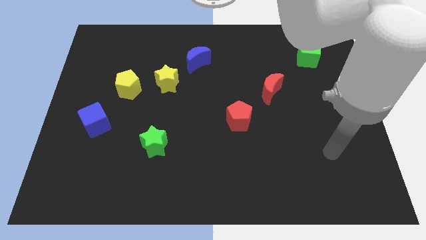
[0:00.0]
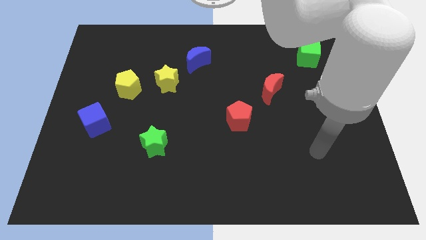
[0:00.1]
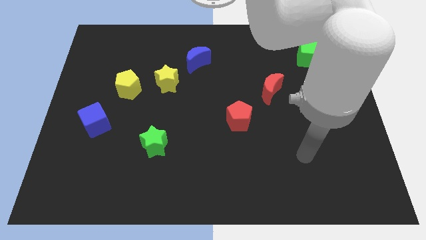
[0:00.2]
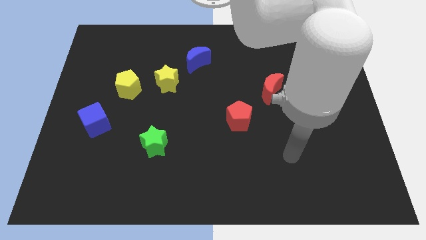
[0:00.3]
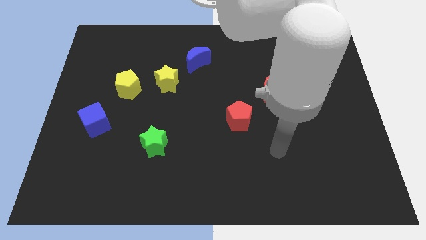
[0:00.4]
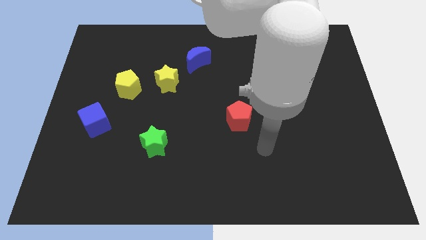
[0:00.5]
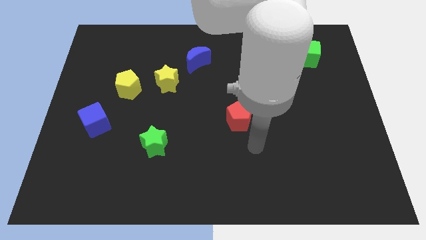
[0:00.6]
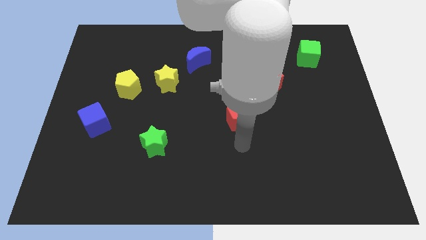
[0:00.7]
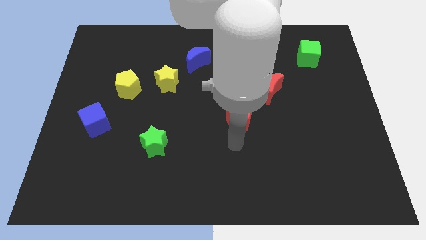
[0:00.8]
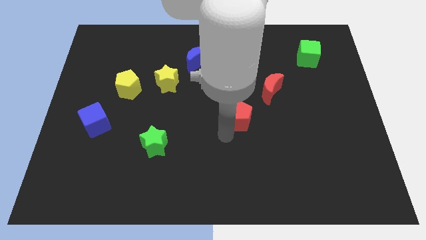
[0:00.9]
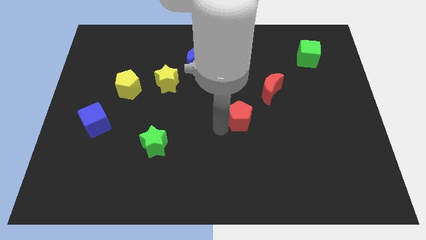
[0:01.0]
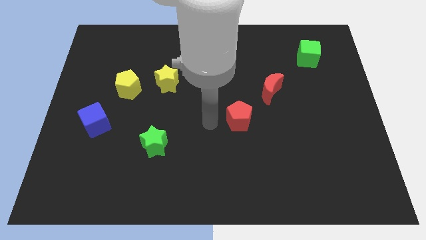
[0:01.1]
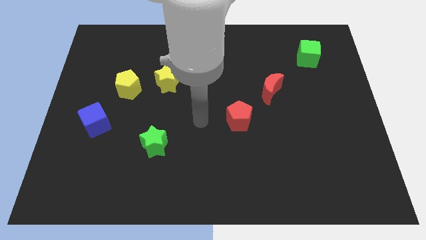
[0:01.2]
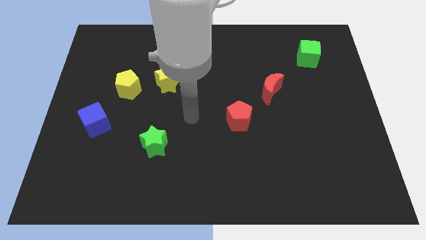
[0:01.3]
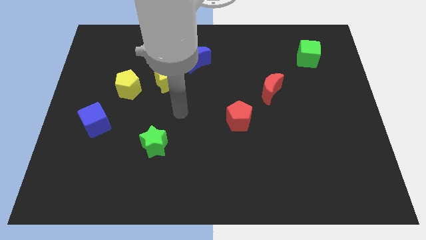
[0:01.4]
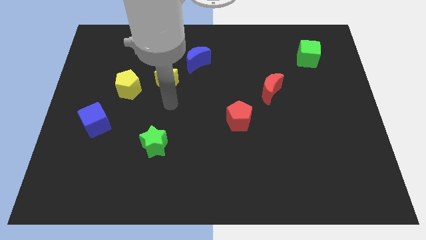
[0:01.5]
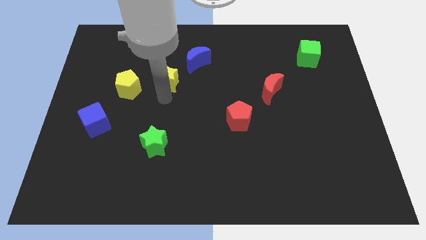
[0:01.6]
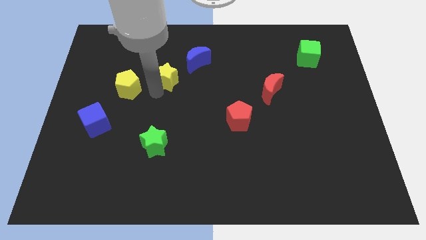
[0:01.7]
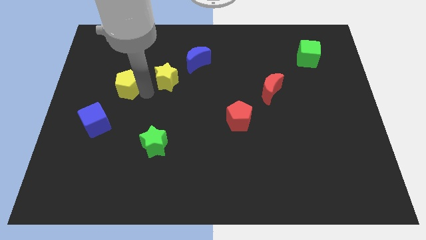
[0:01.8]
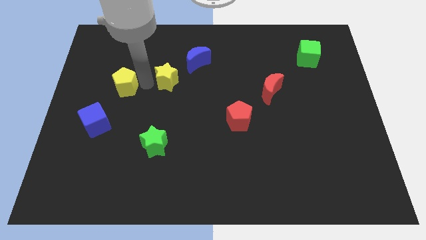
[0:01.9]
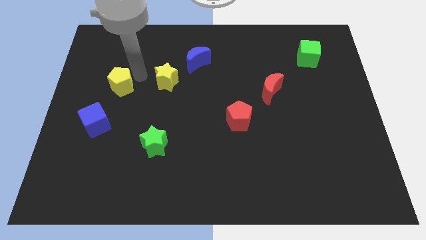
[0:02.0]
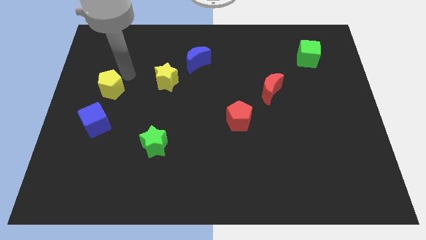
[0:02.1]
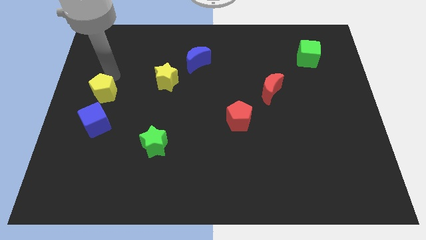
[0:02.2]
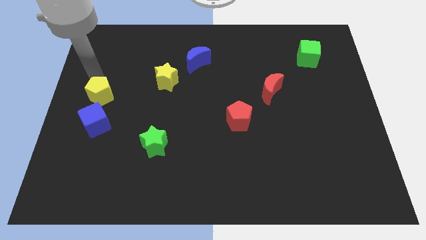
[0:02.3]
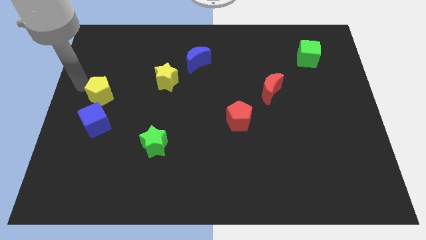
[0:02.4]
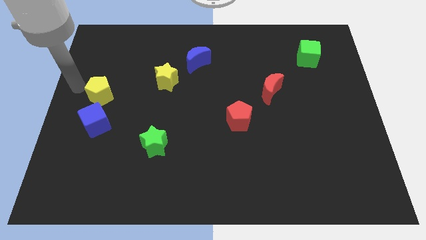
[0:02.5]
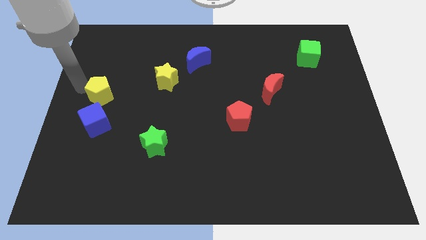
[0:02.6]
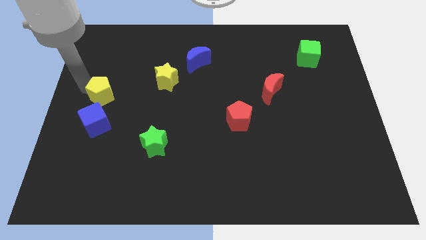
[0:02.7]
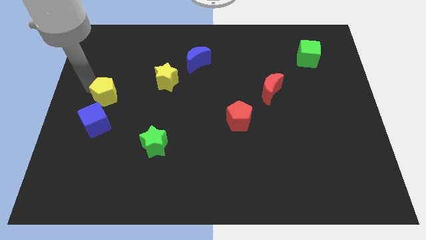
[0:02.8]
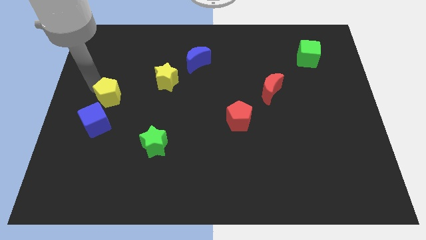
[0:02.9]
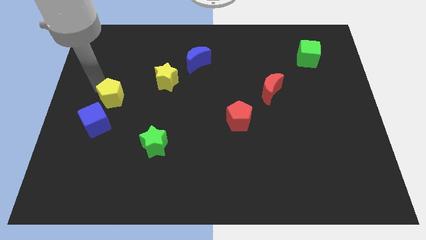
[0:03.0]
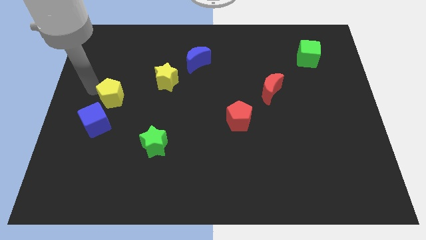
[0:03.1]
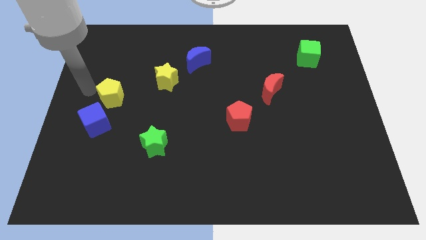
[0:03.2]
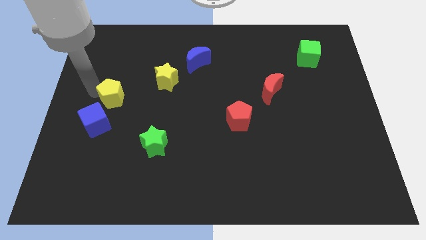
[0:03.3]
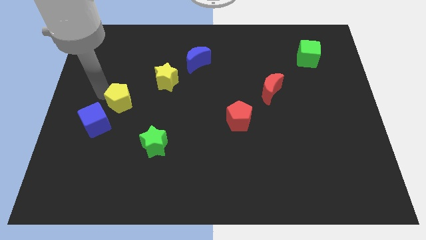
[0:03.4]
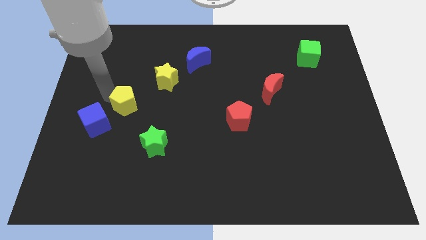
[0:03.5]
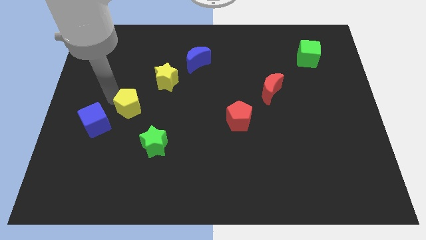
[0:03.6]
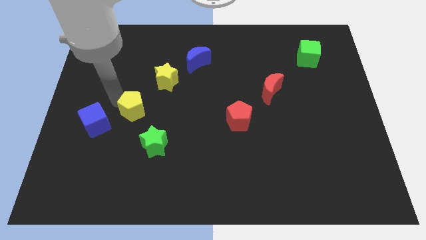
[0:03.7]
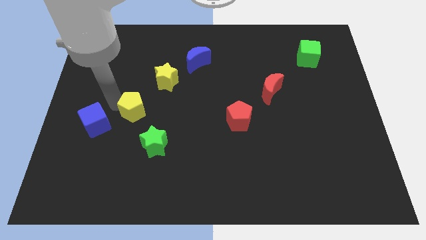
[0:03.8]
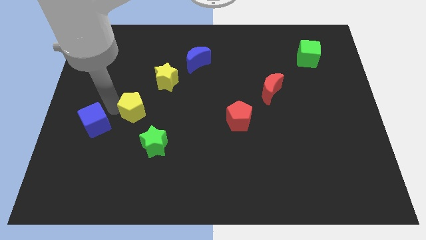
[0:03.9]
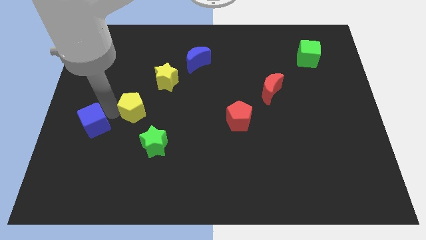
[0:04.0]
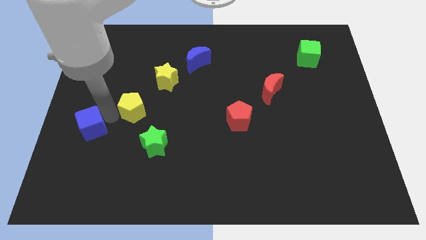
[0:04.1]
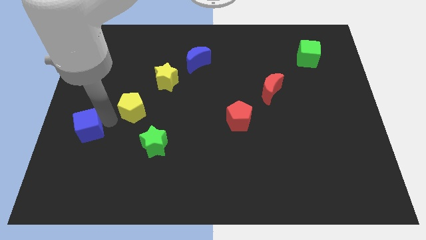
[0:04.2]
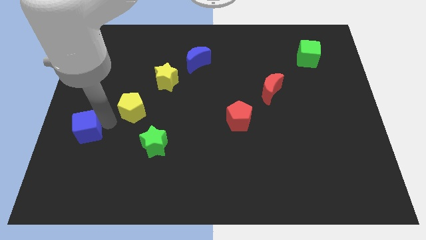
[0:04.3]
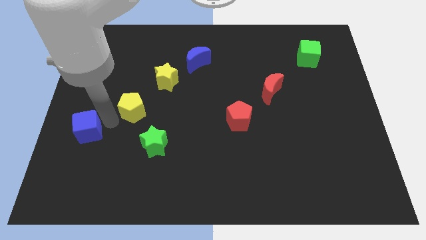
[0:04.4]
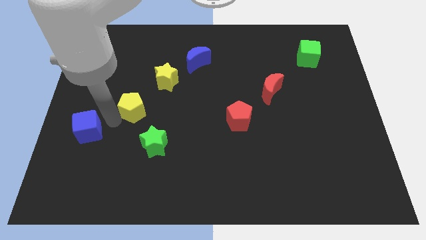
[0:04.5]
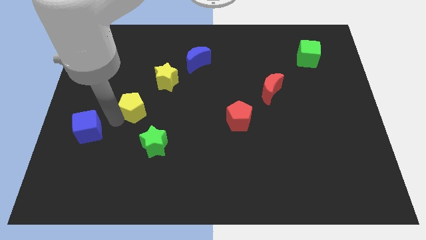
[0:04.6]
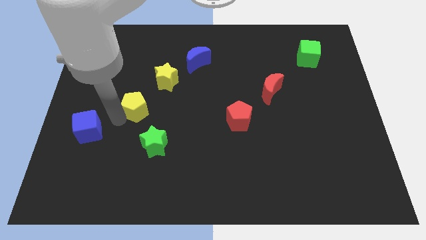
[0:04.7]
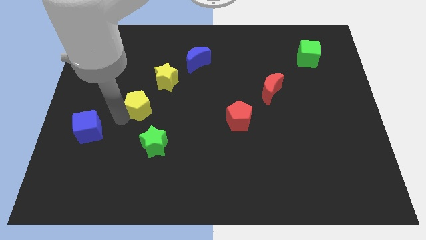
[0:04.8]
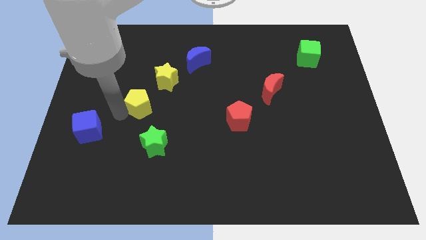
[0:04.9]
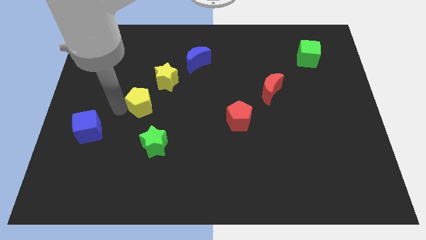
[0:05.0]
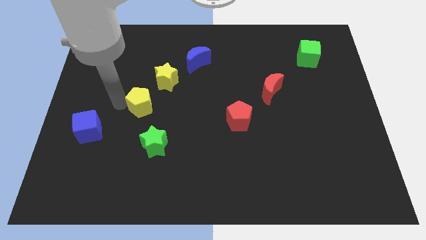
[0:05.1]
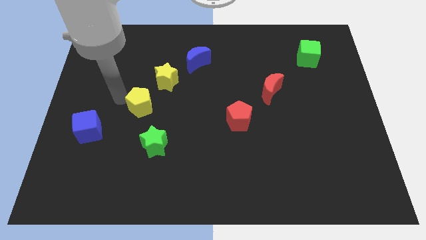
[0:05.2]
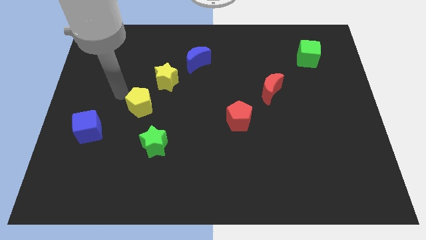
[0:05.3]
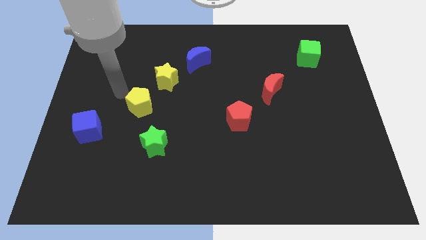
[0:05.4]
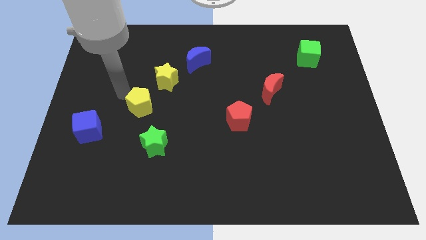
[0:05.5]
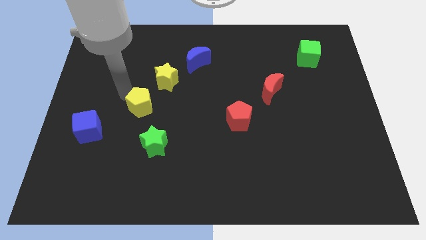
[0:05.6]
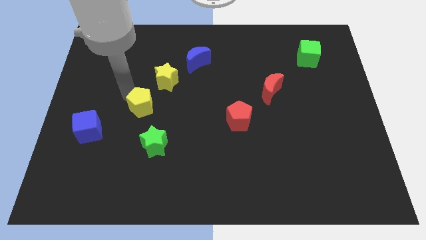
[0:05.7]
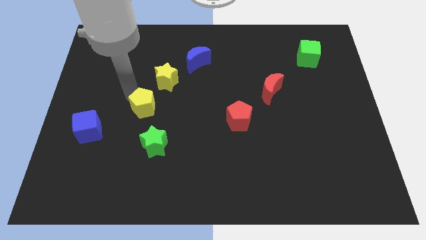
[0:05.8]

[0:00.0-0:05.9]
push the yellow pentagon down and right a little bit

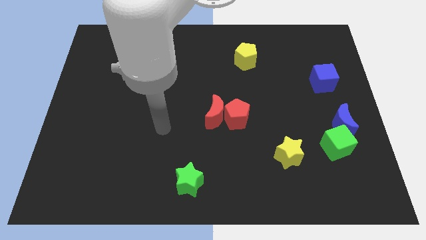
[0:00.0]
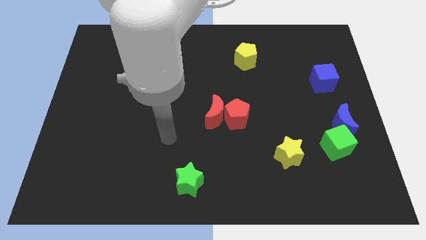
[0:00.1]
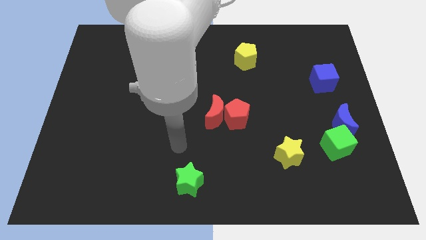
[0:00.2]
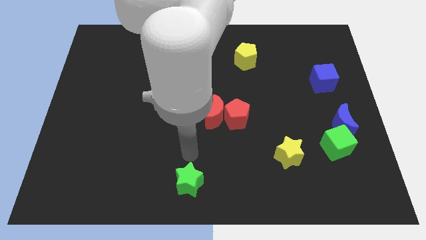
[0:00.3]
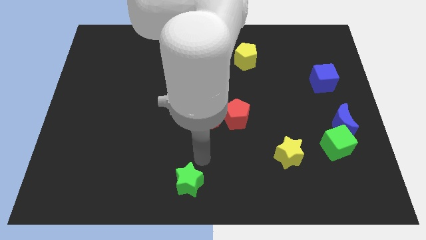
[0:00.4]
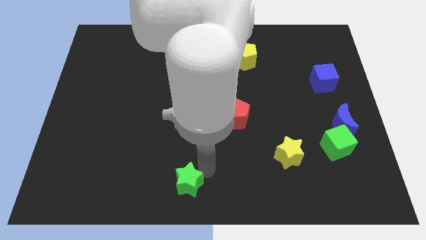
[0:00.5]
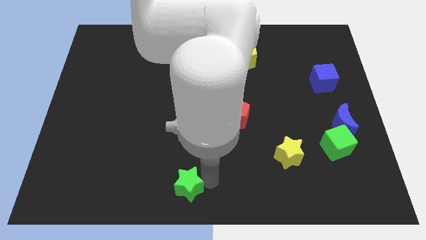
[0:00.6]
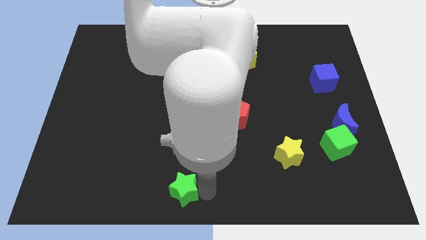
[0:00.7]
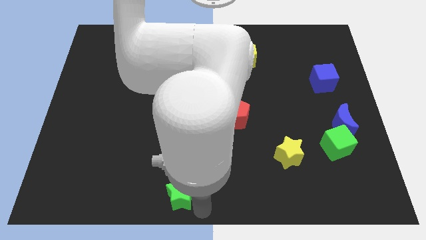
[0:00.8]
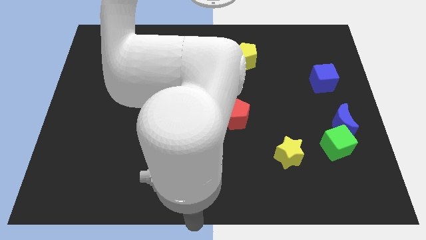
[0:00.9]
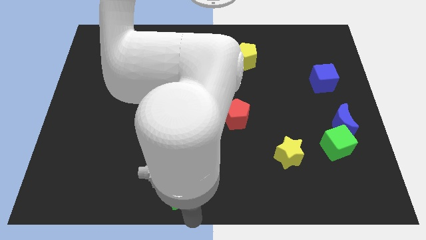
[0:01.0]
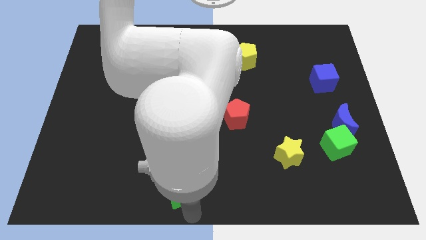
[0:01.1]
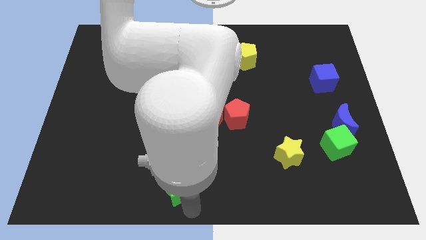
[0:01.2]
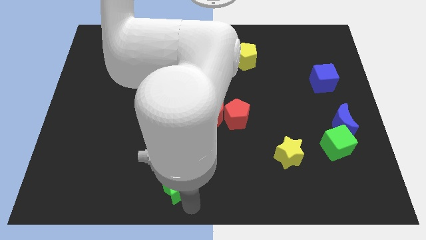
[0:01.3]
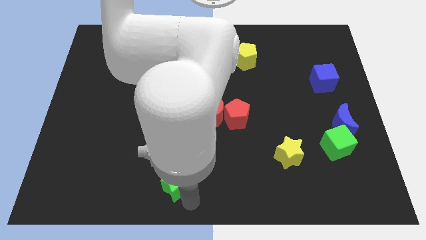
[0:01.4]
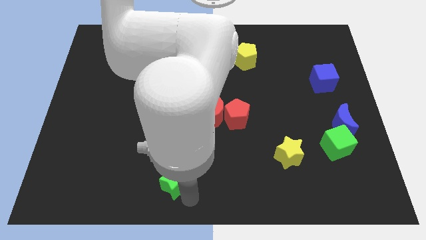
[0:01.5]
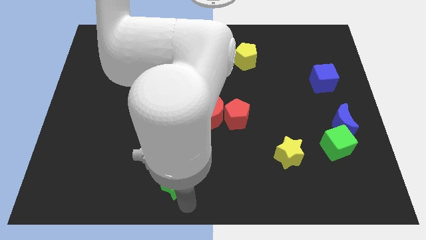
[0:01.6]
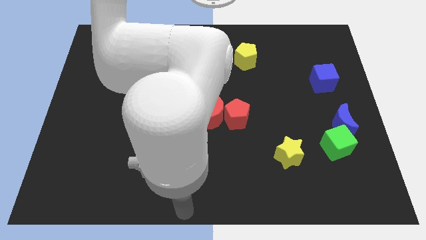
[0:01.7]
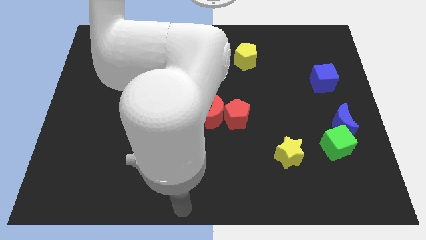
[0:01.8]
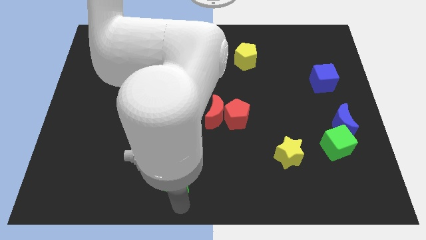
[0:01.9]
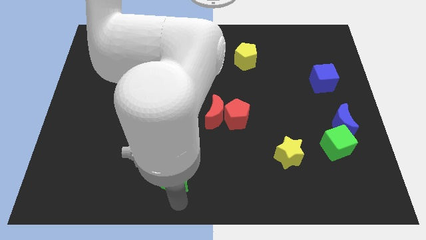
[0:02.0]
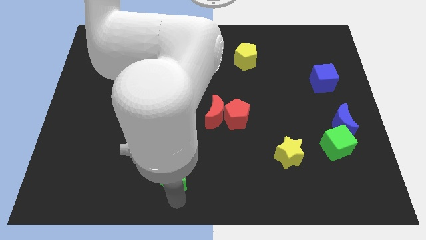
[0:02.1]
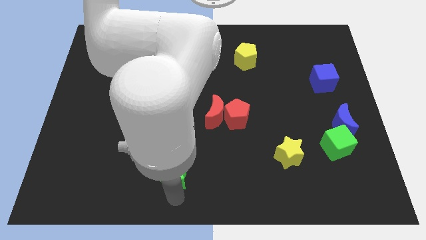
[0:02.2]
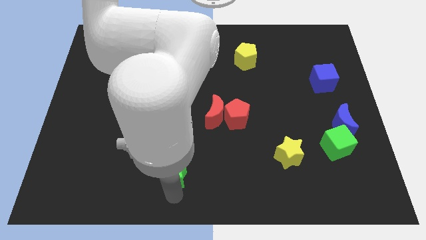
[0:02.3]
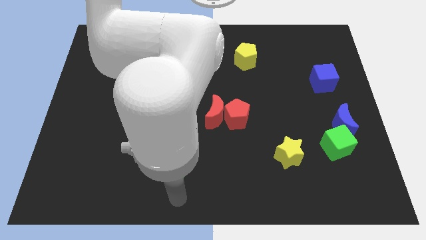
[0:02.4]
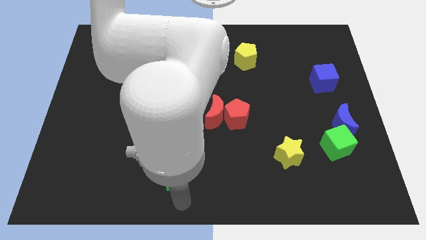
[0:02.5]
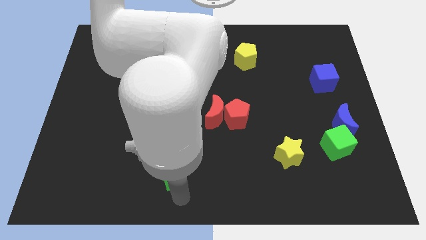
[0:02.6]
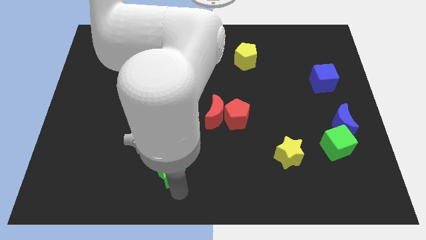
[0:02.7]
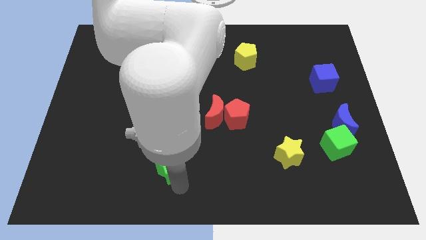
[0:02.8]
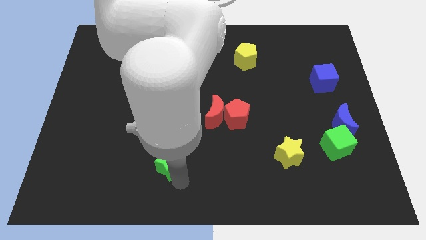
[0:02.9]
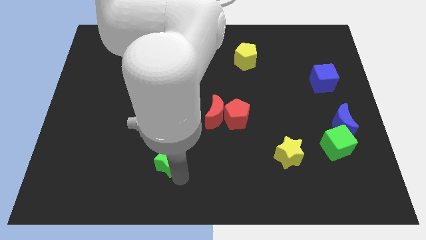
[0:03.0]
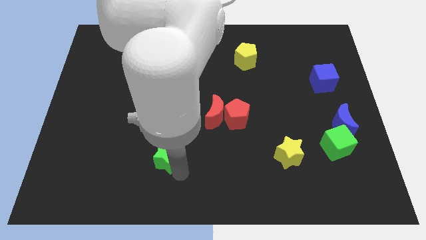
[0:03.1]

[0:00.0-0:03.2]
slightly move the green star upwards and then to the left
